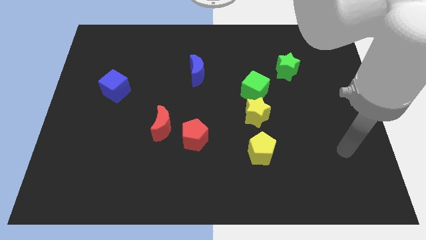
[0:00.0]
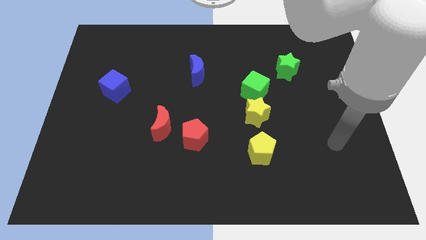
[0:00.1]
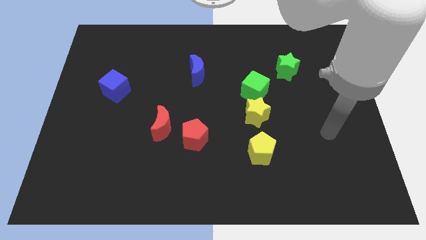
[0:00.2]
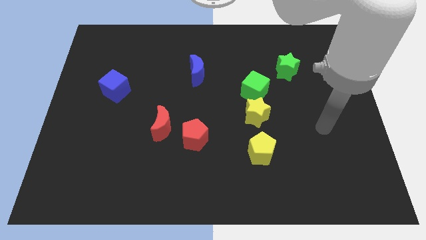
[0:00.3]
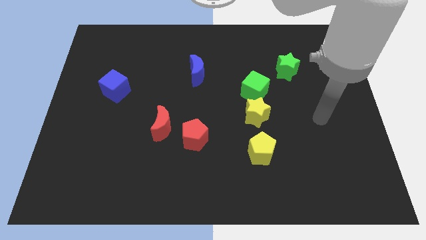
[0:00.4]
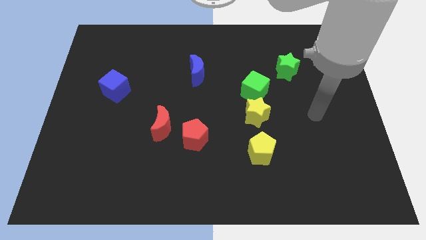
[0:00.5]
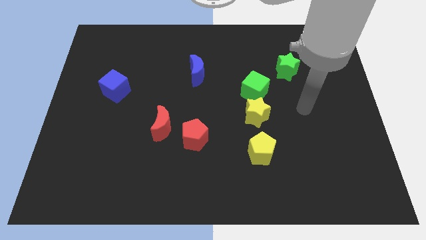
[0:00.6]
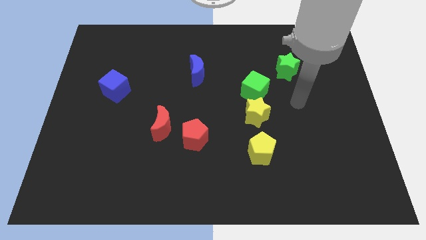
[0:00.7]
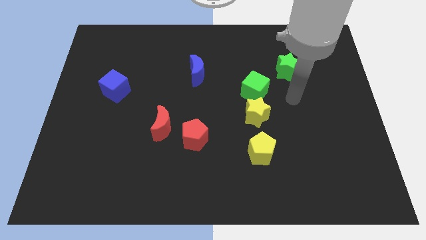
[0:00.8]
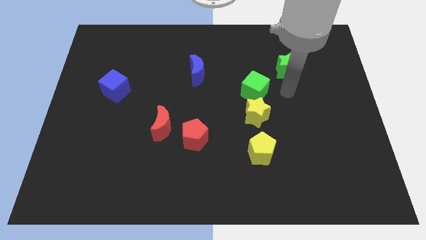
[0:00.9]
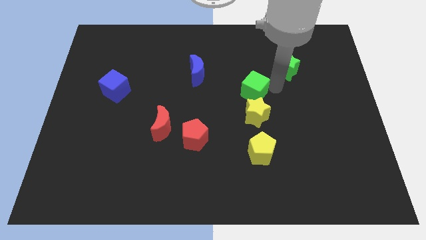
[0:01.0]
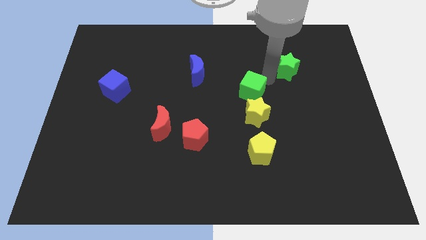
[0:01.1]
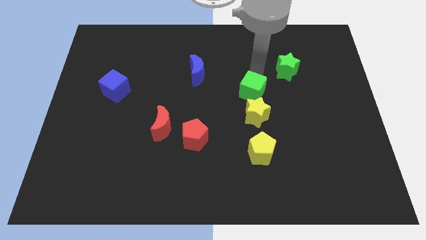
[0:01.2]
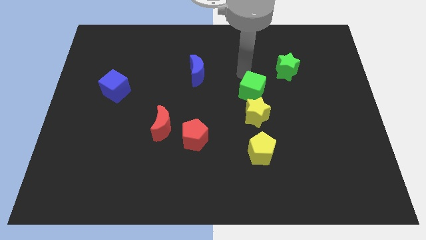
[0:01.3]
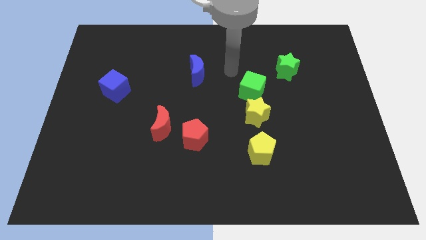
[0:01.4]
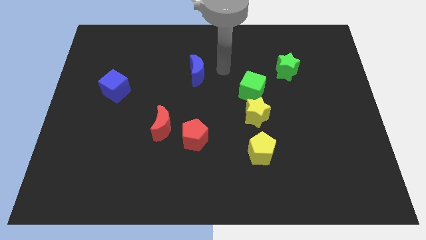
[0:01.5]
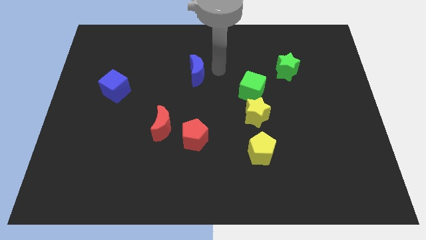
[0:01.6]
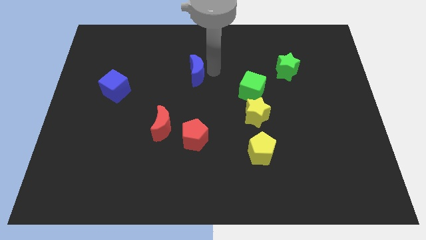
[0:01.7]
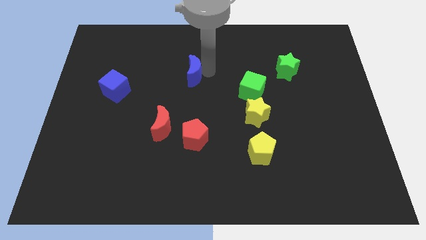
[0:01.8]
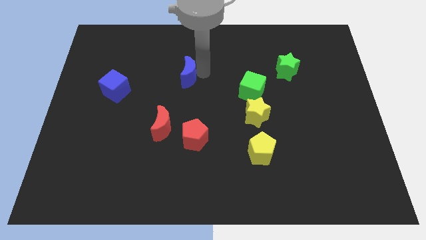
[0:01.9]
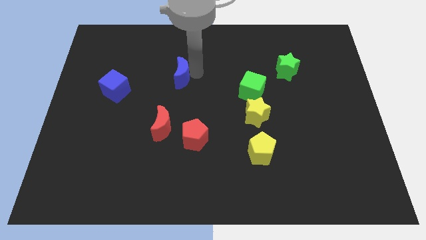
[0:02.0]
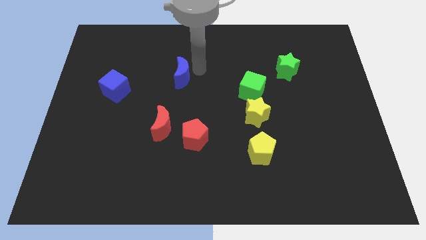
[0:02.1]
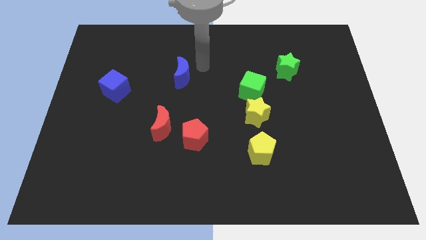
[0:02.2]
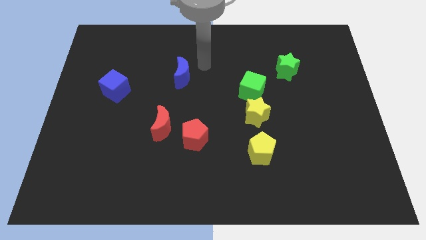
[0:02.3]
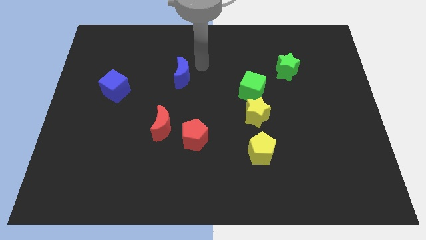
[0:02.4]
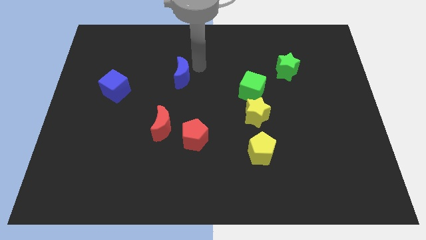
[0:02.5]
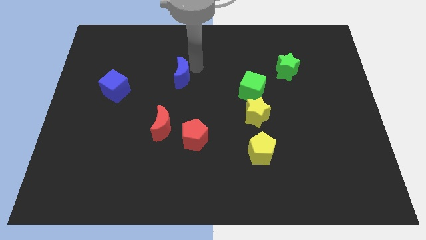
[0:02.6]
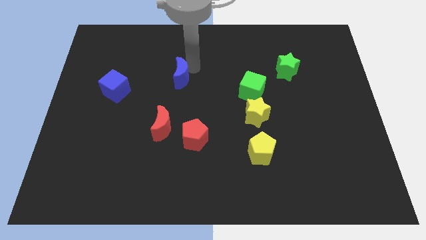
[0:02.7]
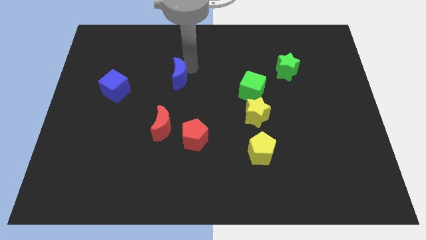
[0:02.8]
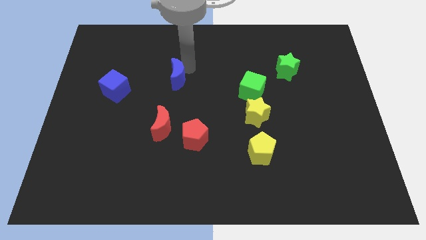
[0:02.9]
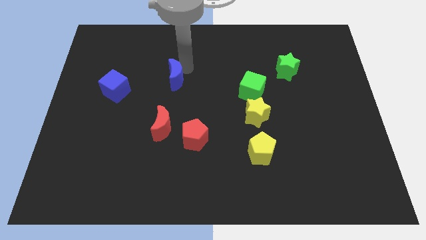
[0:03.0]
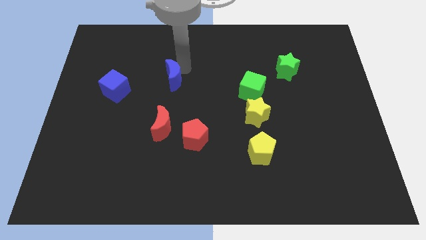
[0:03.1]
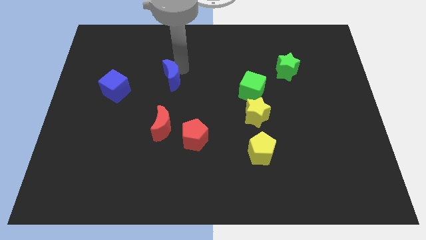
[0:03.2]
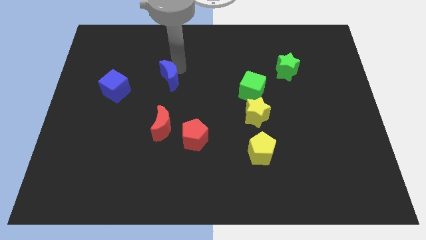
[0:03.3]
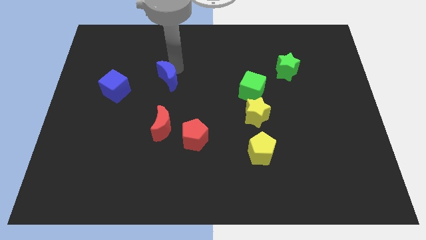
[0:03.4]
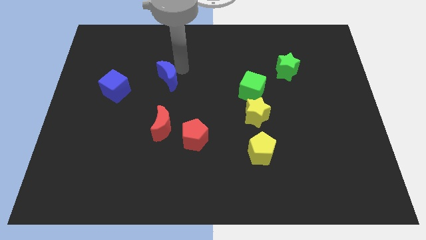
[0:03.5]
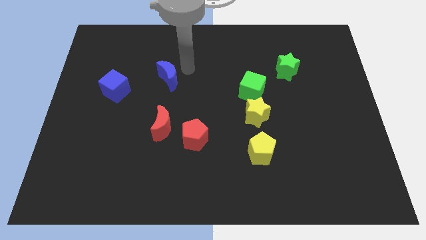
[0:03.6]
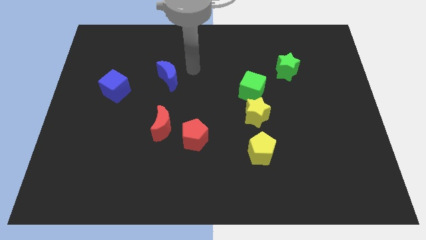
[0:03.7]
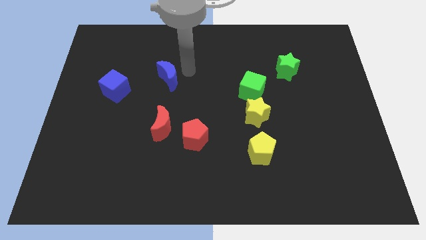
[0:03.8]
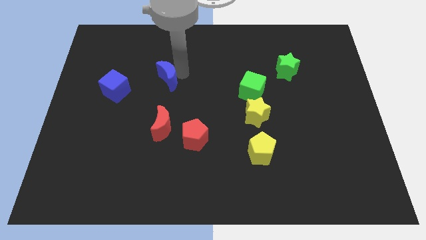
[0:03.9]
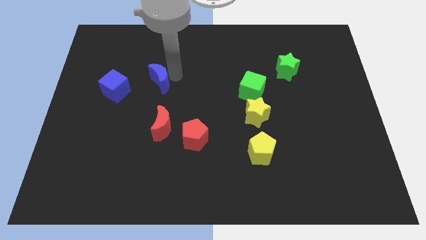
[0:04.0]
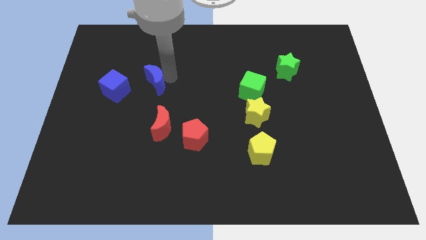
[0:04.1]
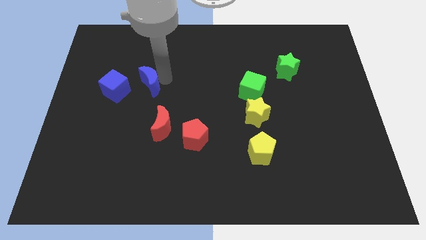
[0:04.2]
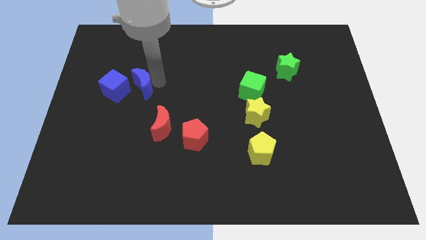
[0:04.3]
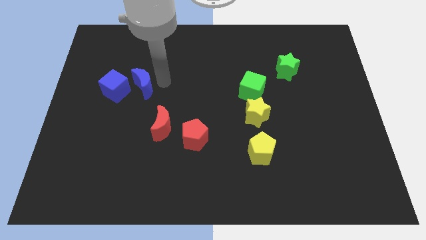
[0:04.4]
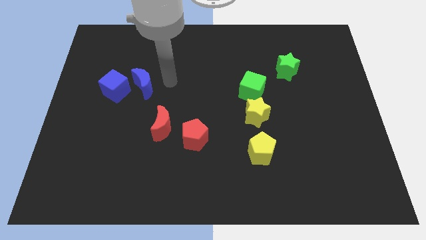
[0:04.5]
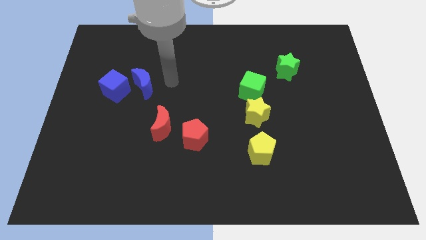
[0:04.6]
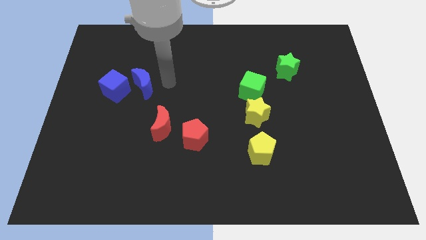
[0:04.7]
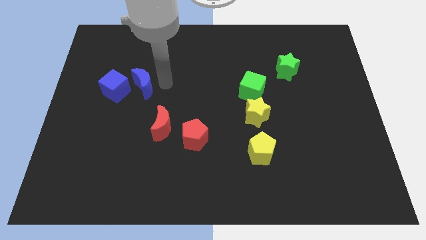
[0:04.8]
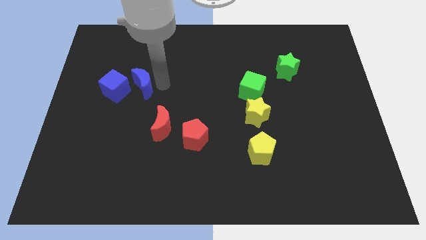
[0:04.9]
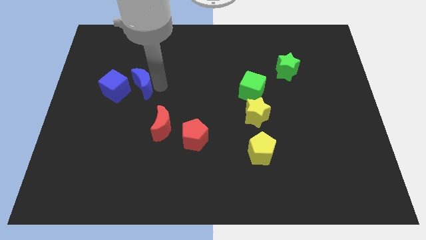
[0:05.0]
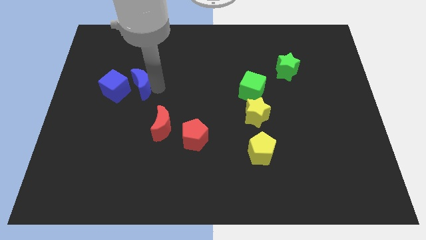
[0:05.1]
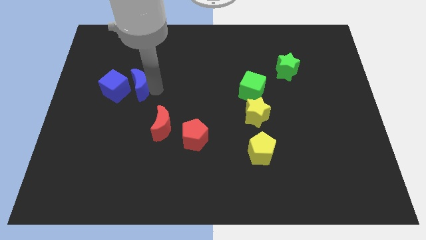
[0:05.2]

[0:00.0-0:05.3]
slide the blue moon close to the blue cube

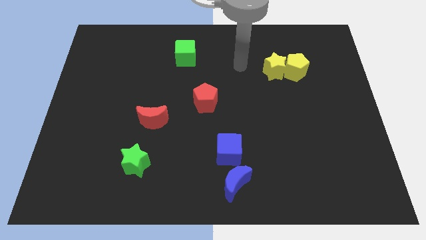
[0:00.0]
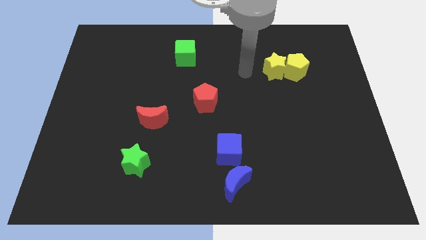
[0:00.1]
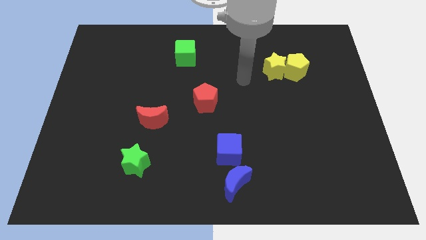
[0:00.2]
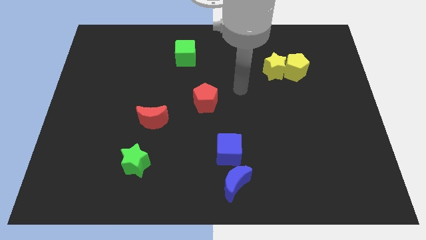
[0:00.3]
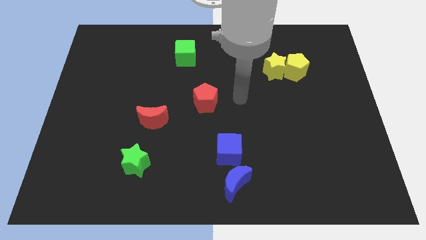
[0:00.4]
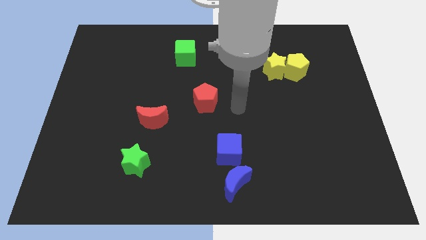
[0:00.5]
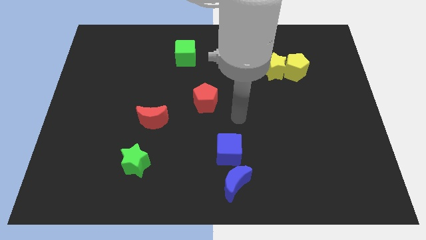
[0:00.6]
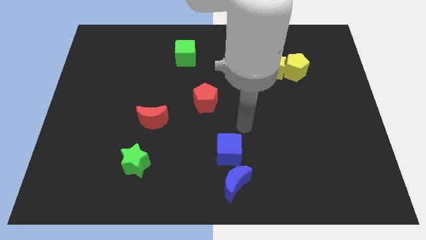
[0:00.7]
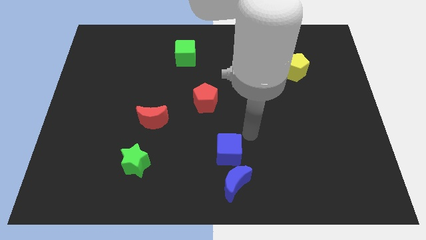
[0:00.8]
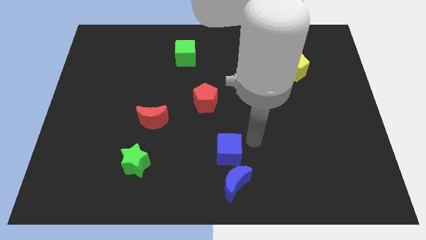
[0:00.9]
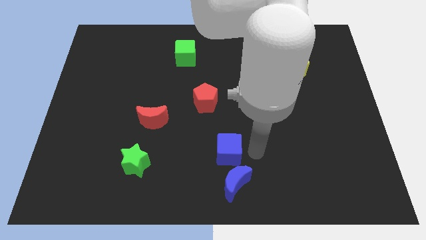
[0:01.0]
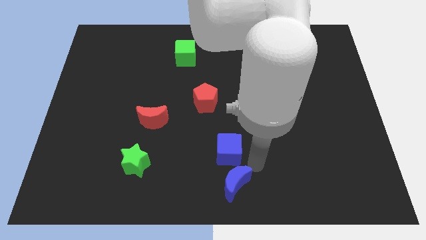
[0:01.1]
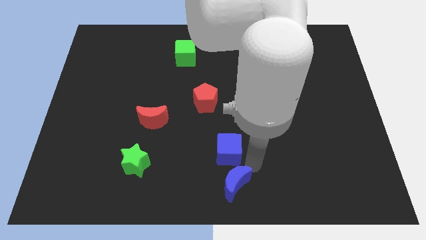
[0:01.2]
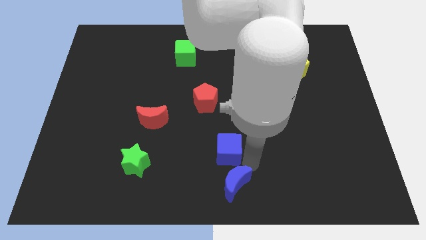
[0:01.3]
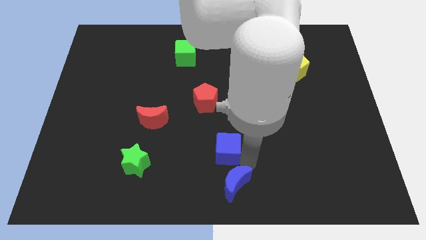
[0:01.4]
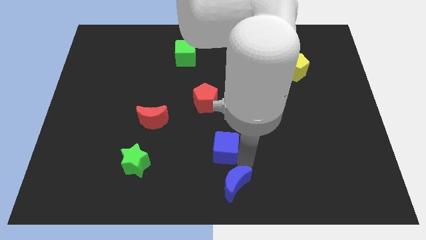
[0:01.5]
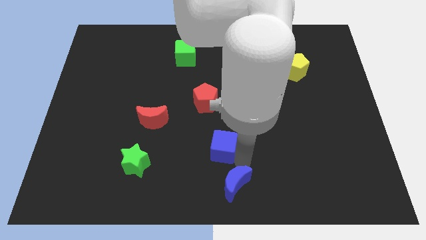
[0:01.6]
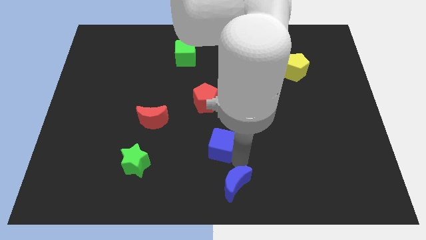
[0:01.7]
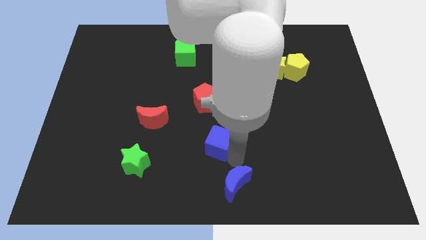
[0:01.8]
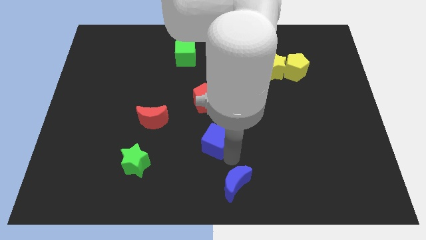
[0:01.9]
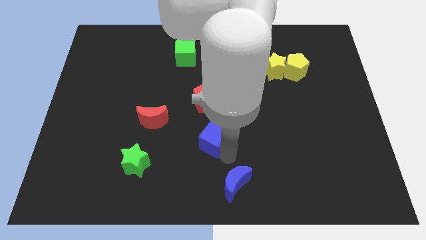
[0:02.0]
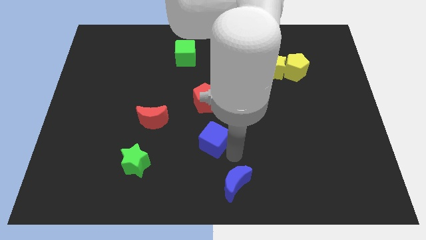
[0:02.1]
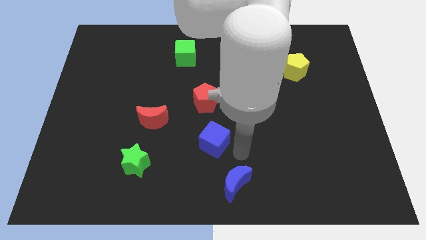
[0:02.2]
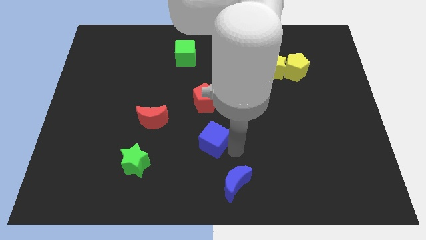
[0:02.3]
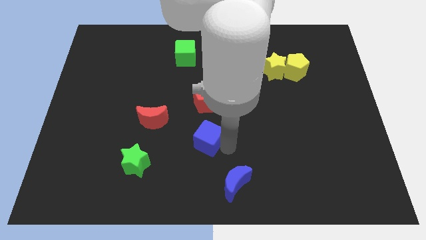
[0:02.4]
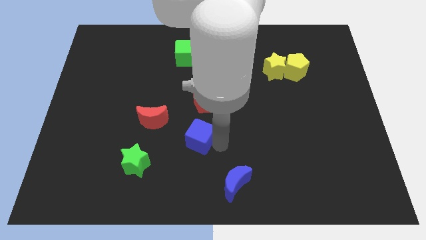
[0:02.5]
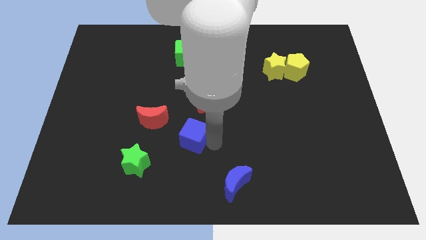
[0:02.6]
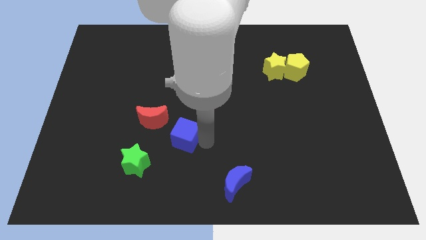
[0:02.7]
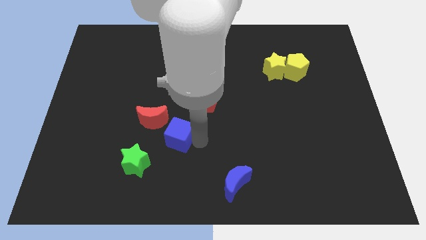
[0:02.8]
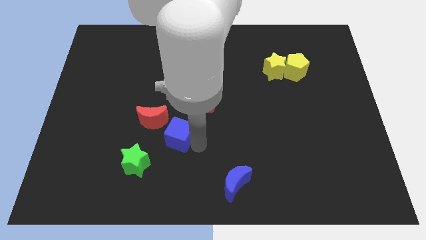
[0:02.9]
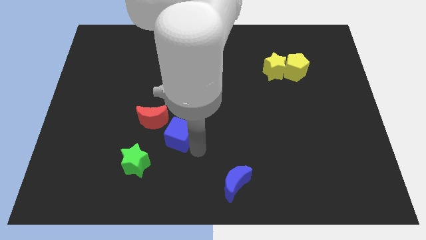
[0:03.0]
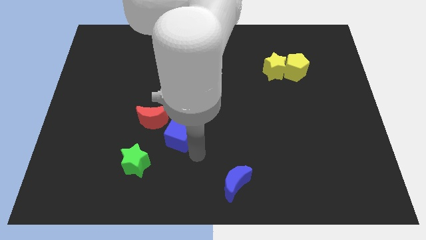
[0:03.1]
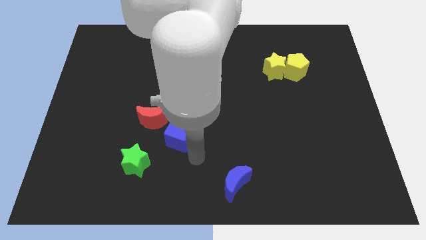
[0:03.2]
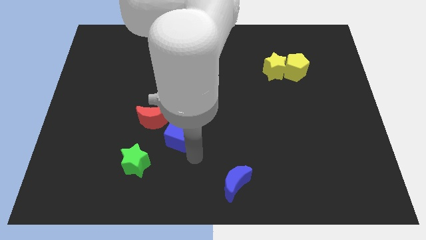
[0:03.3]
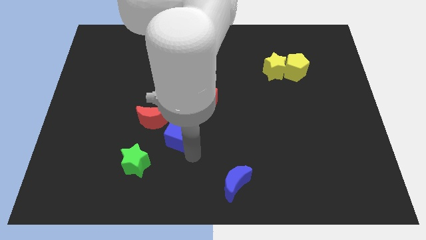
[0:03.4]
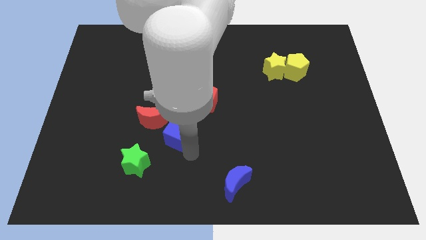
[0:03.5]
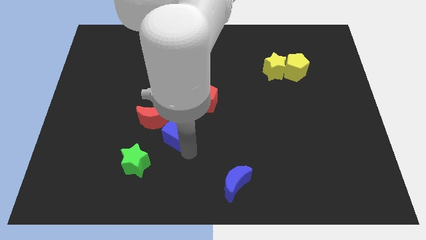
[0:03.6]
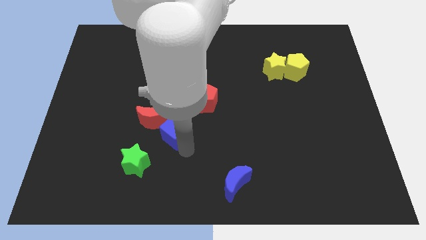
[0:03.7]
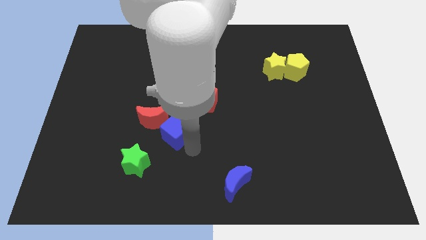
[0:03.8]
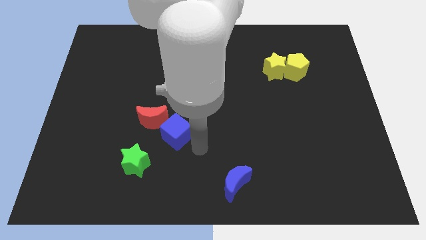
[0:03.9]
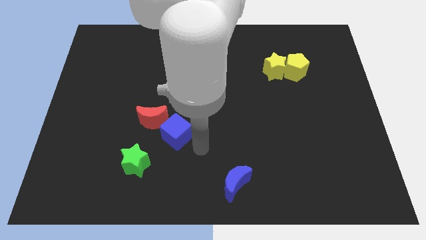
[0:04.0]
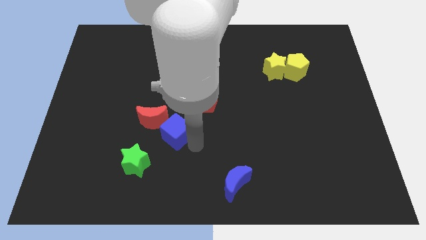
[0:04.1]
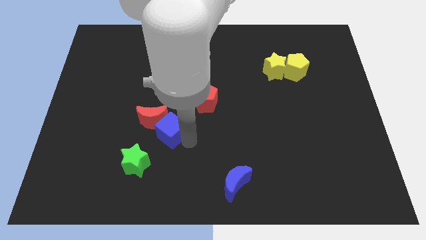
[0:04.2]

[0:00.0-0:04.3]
put the blue cube close to the red moon
